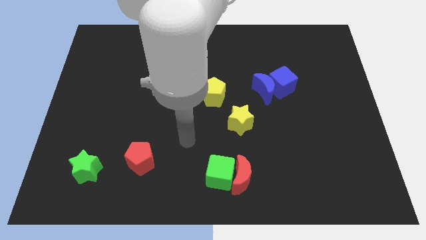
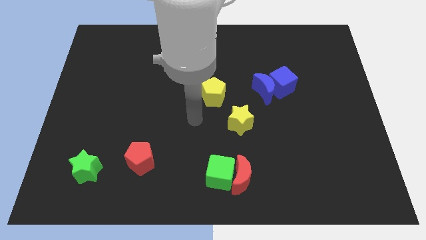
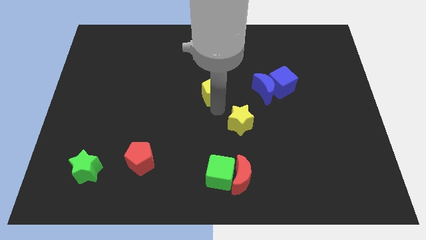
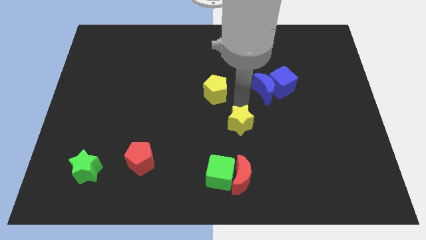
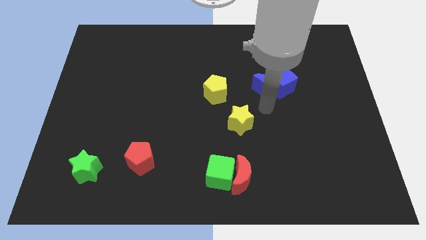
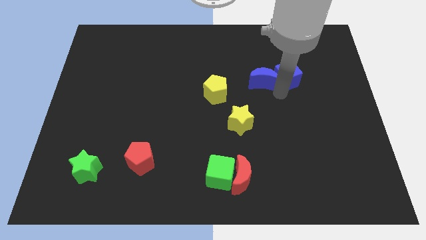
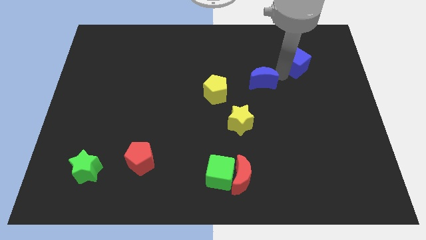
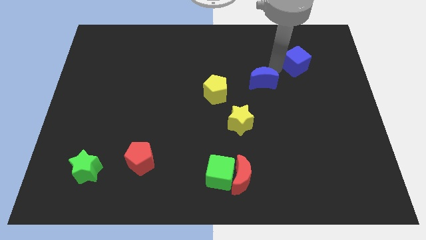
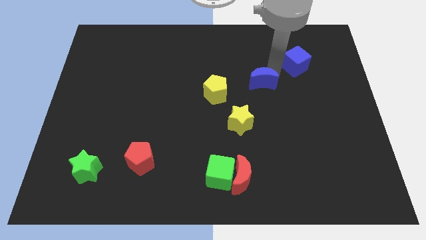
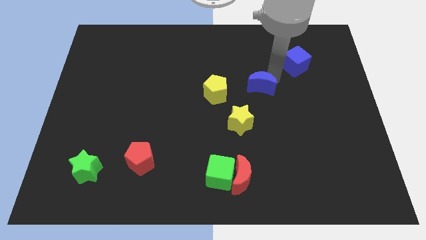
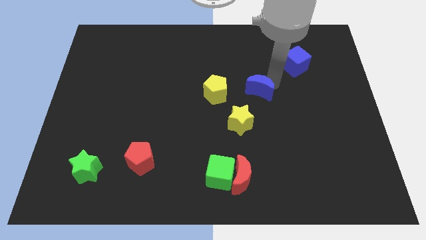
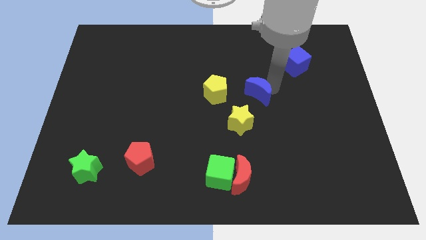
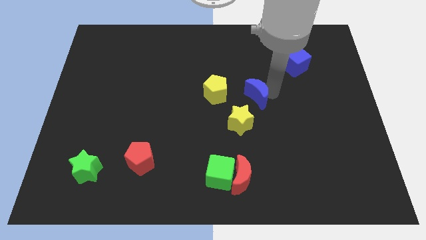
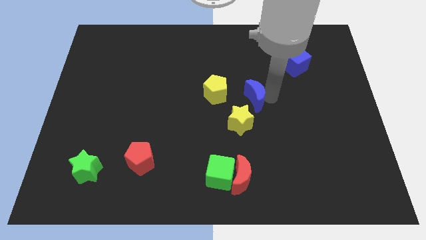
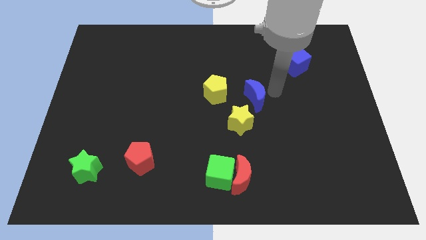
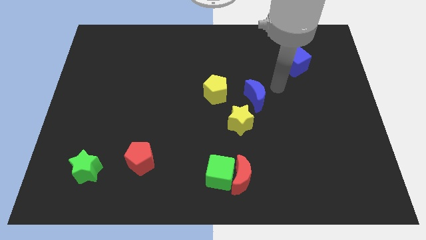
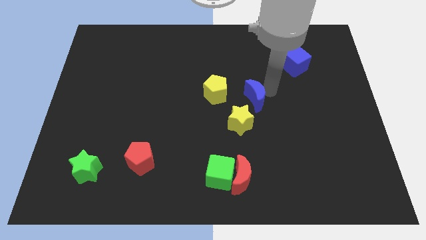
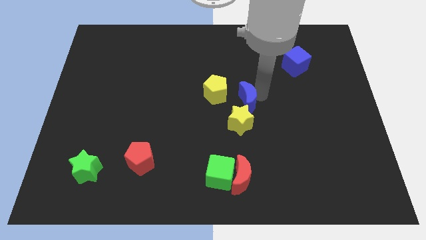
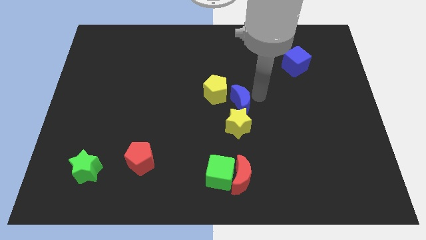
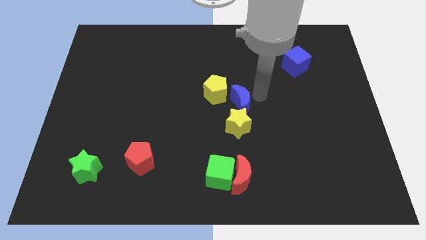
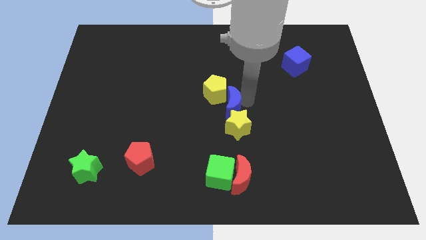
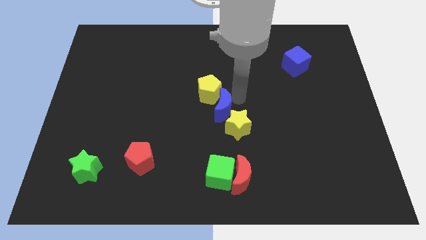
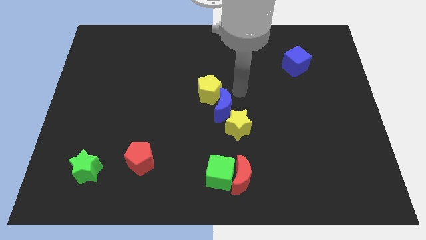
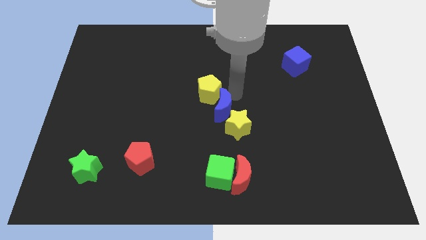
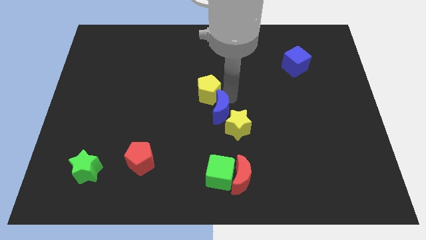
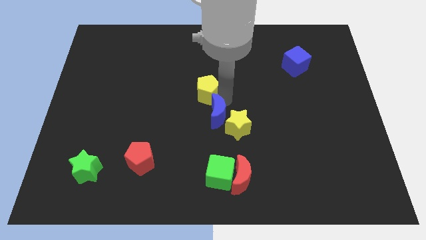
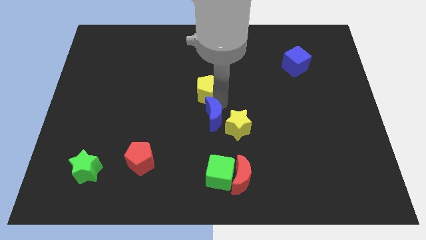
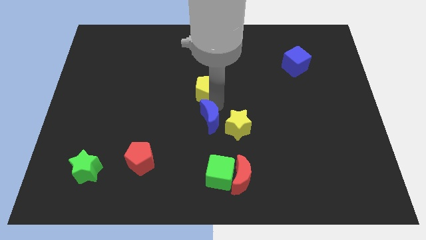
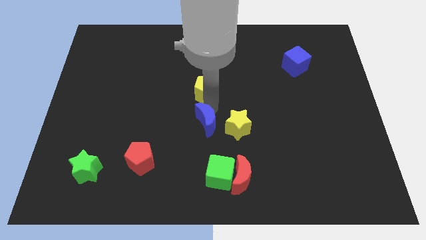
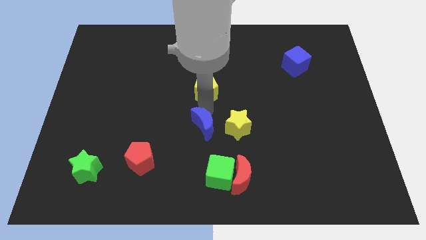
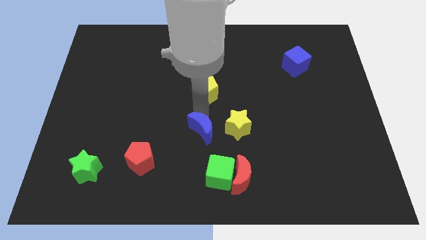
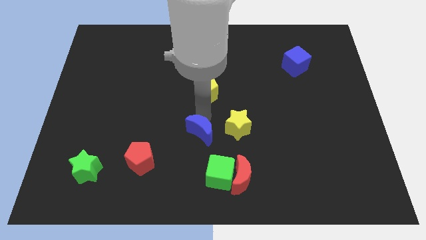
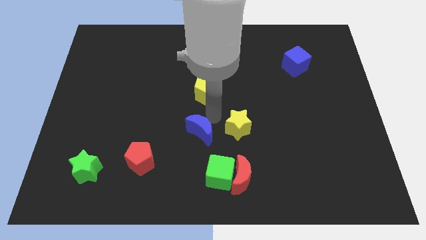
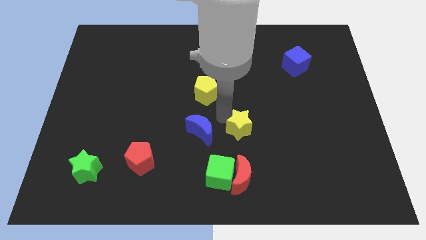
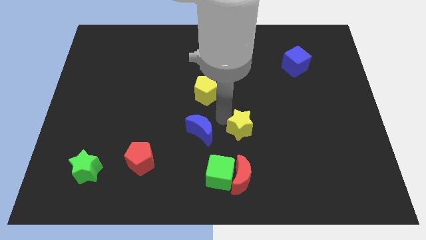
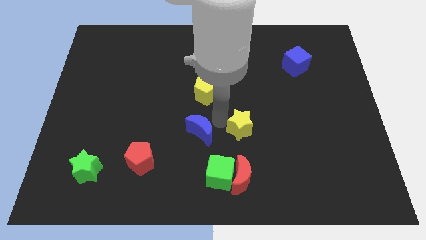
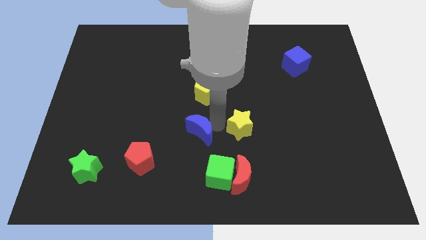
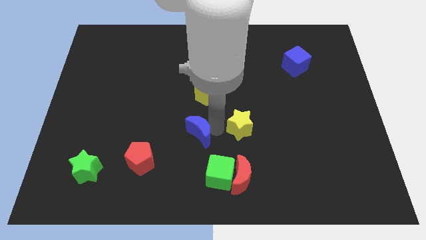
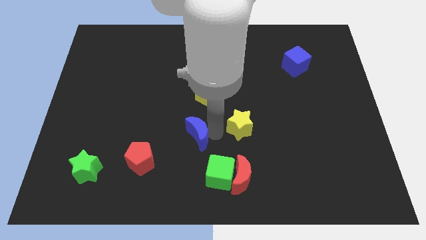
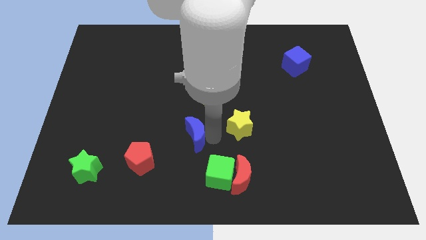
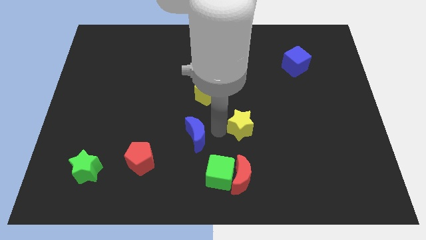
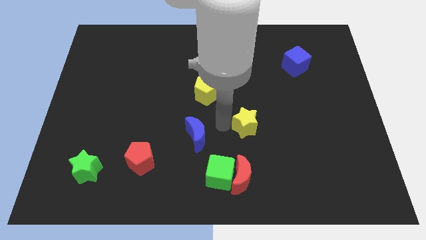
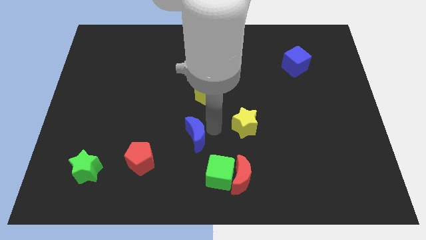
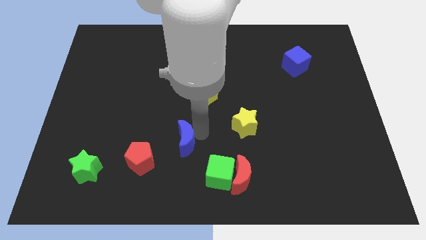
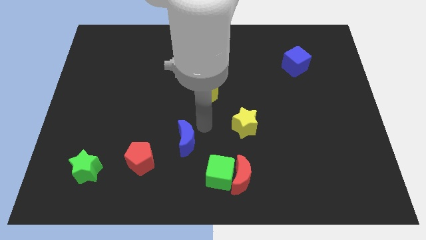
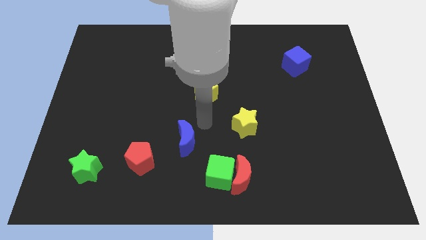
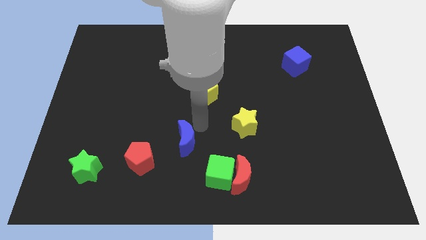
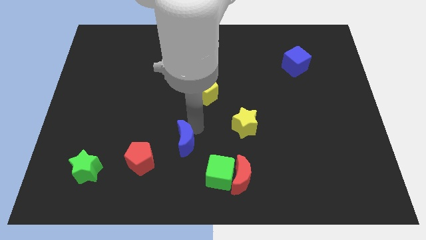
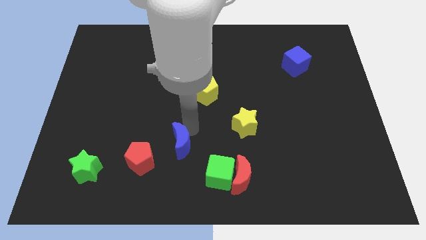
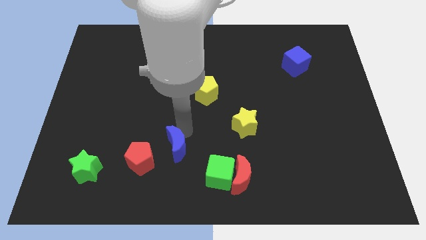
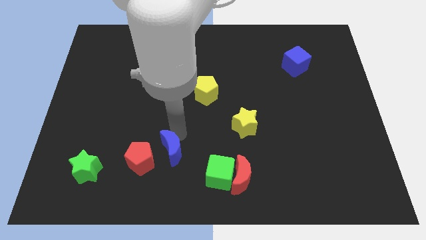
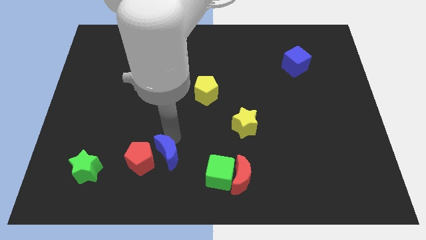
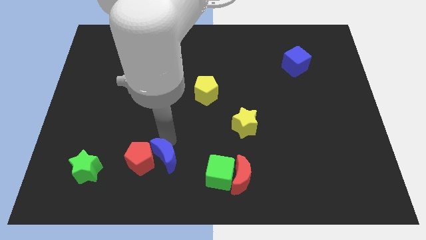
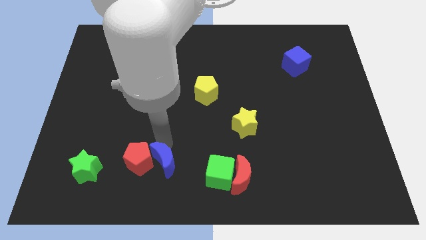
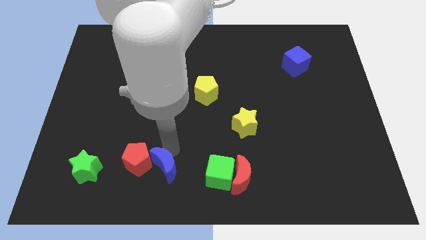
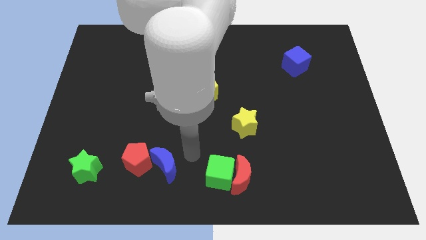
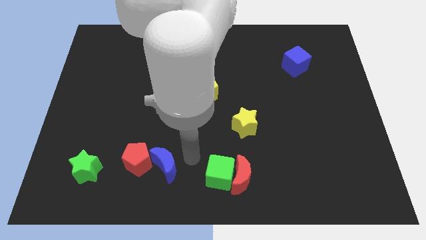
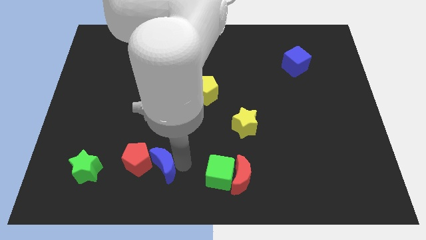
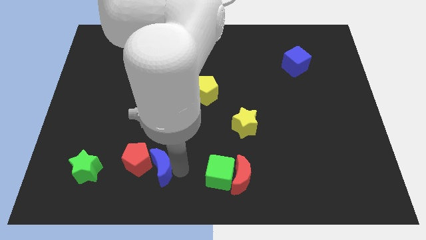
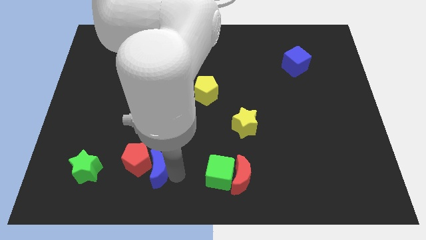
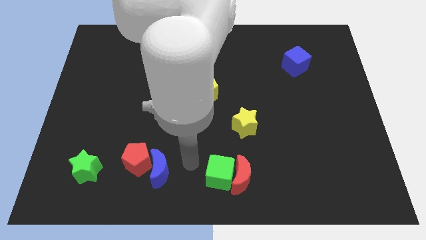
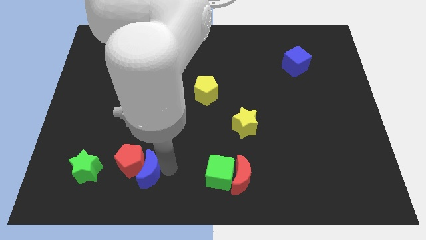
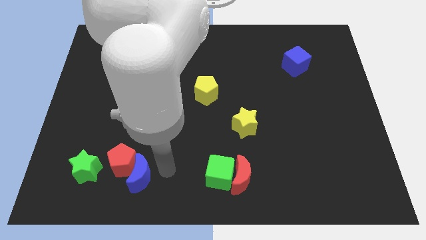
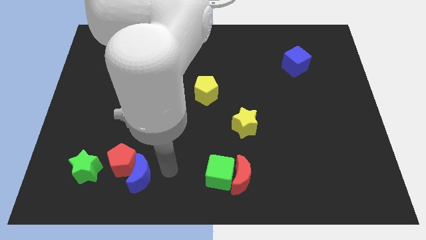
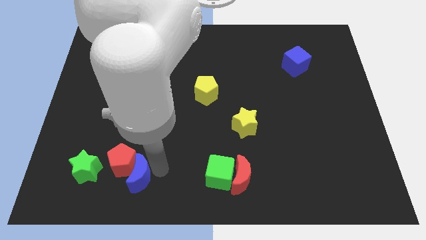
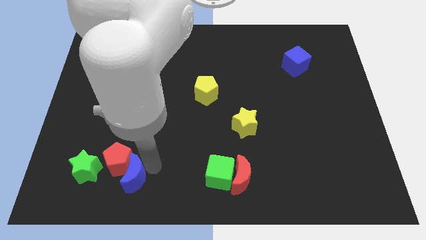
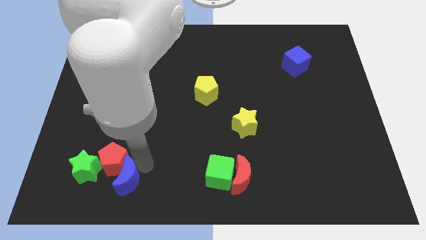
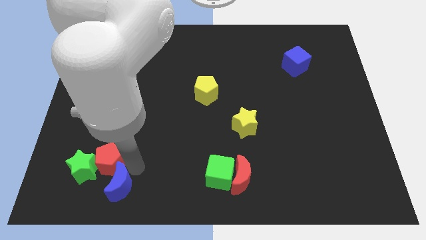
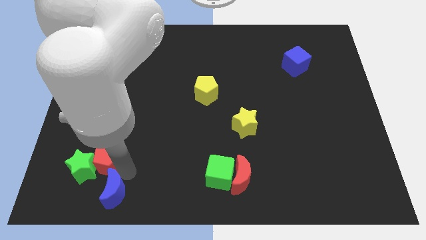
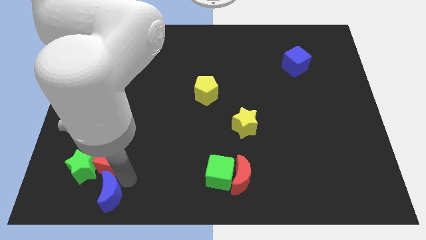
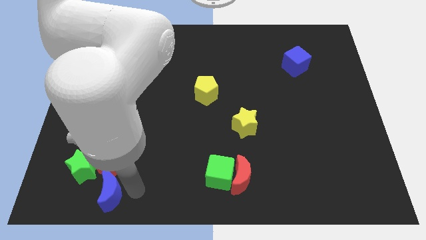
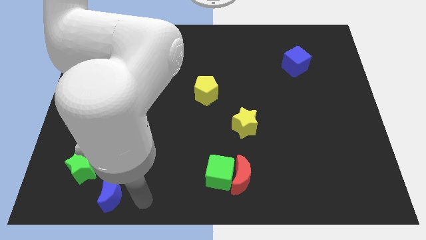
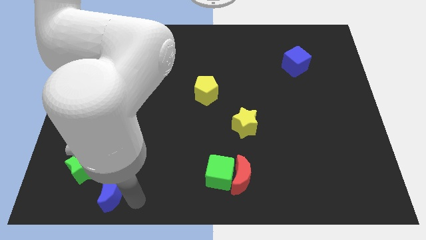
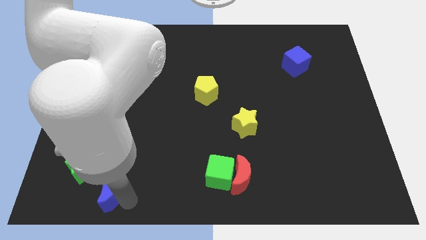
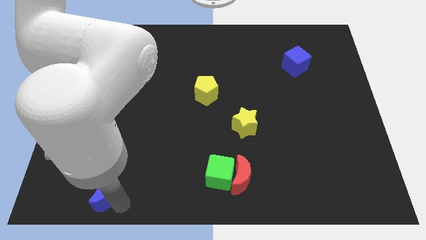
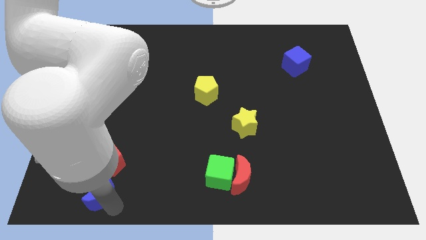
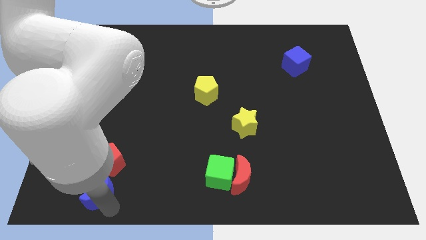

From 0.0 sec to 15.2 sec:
slide the blue moon to the bottom left of the red pentagon

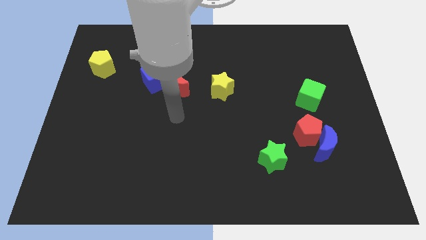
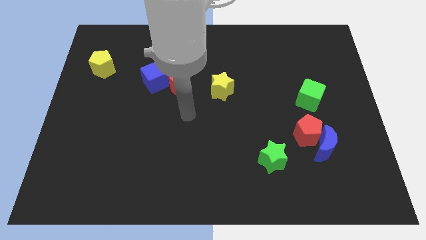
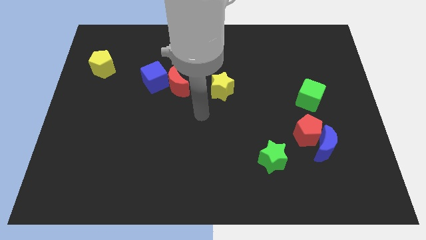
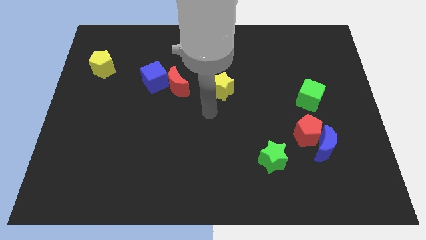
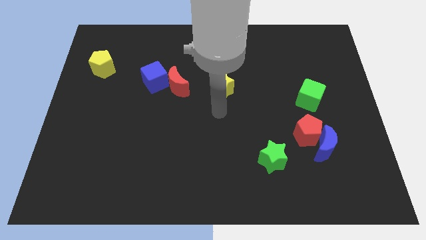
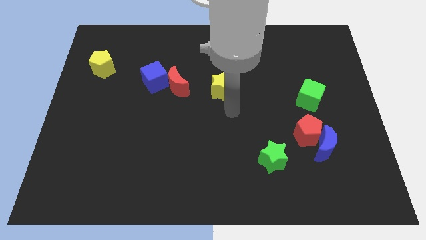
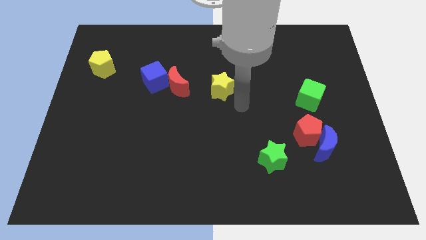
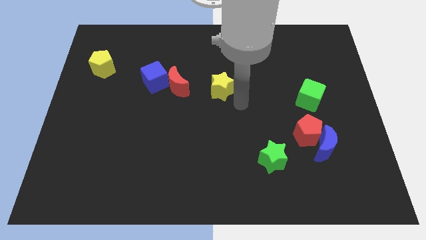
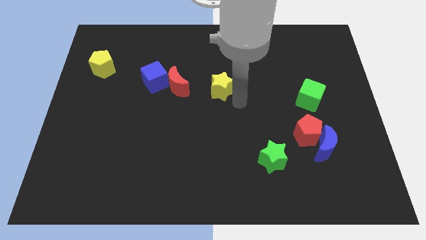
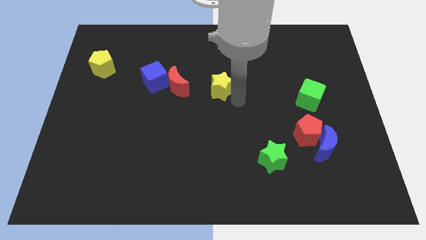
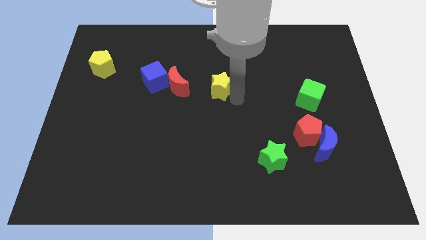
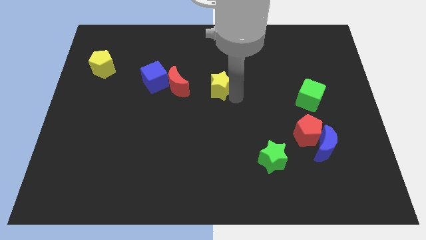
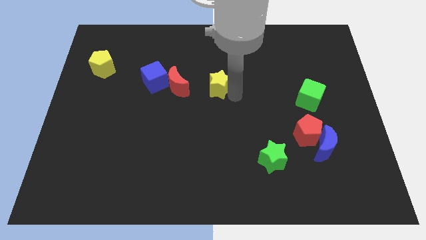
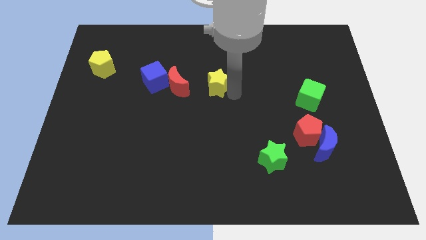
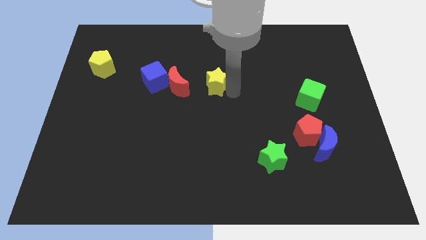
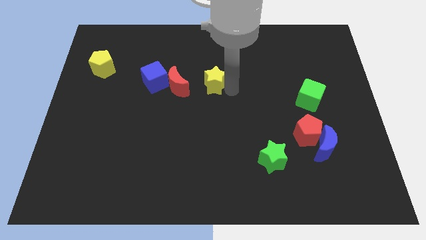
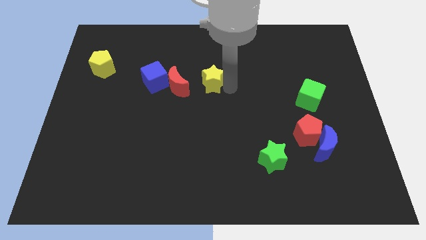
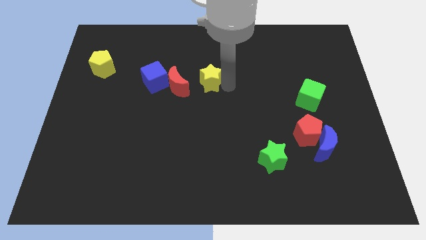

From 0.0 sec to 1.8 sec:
move the yellow star to the top right side of the red moon
